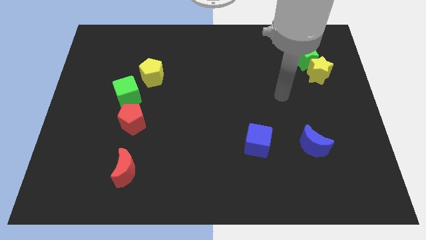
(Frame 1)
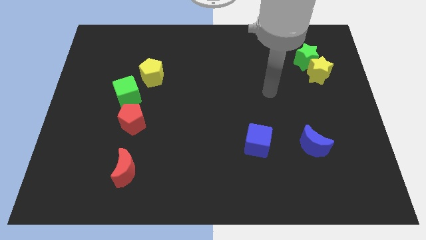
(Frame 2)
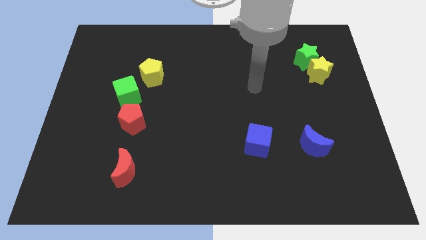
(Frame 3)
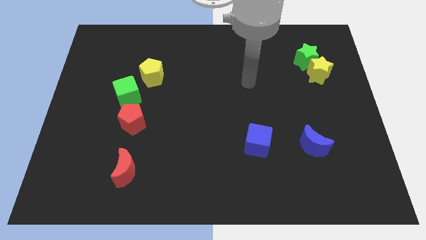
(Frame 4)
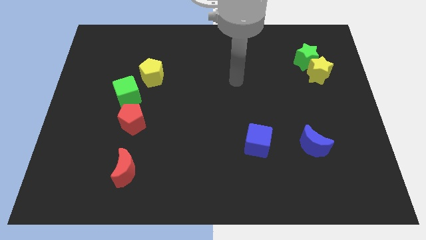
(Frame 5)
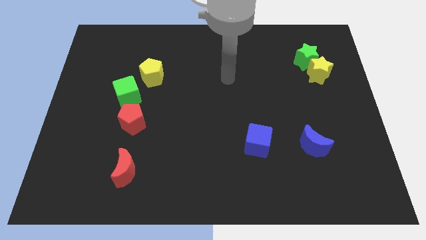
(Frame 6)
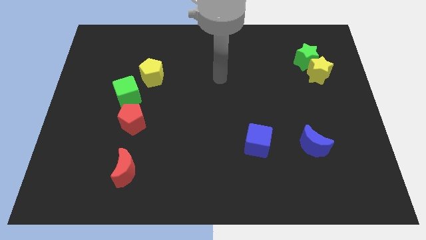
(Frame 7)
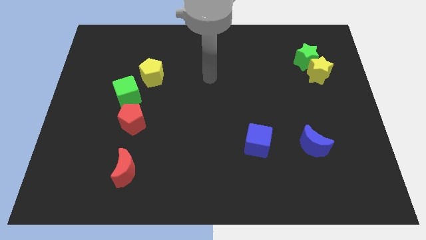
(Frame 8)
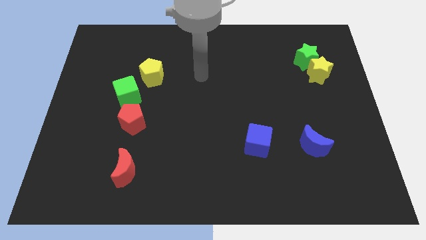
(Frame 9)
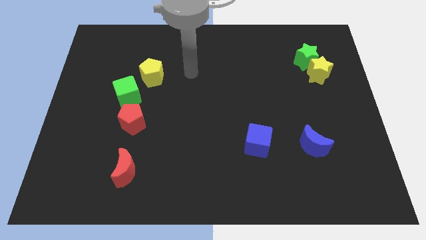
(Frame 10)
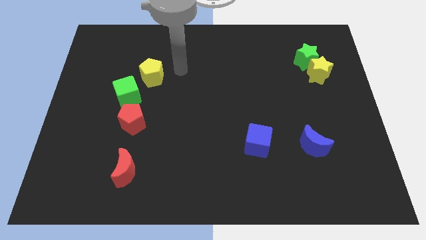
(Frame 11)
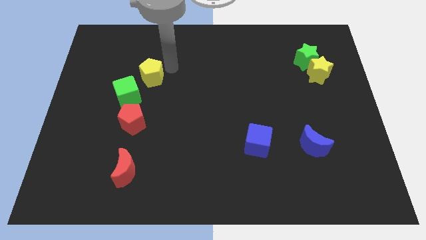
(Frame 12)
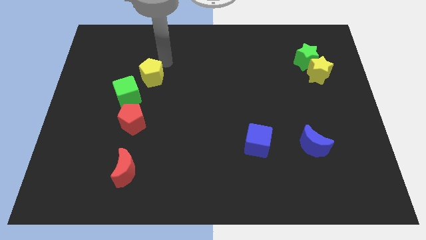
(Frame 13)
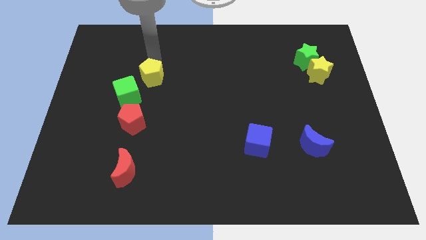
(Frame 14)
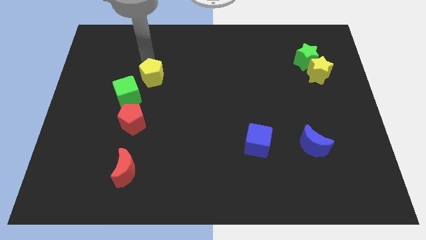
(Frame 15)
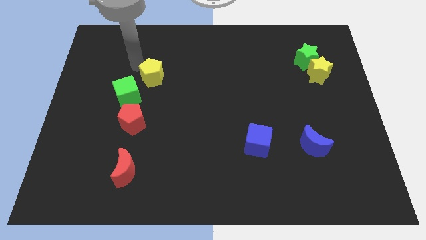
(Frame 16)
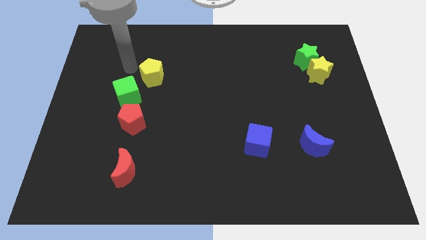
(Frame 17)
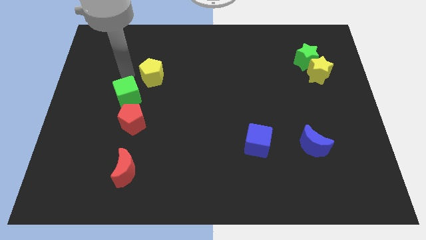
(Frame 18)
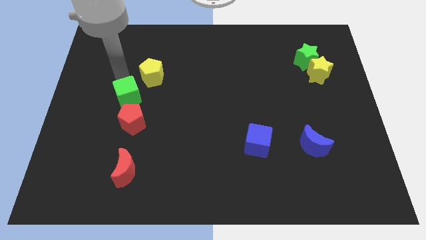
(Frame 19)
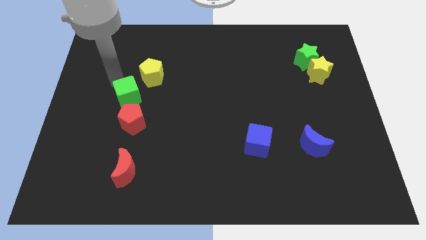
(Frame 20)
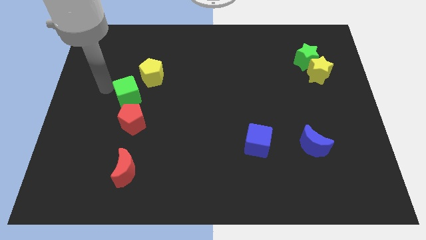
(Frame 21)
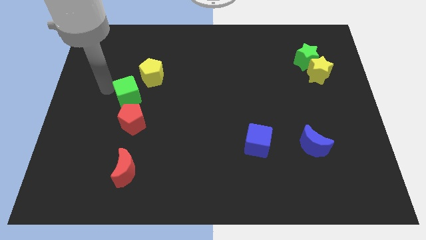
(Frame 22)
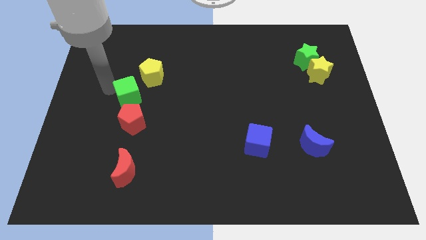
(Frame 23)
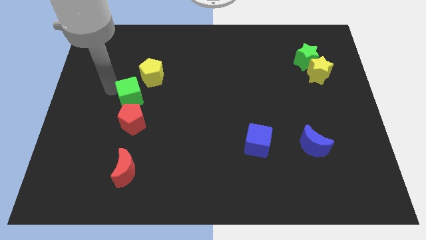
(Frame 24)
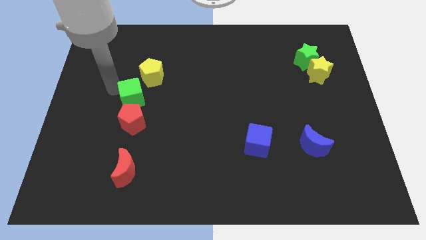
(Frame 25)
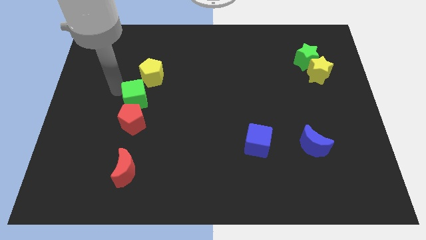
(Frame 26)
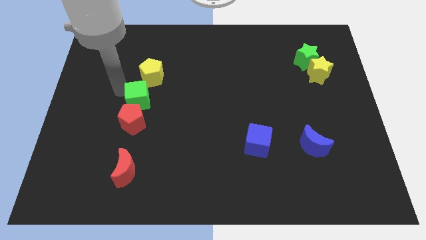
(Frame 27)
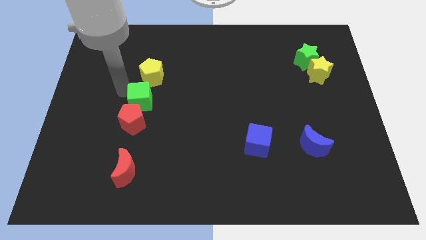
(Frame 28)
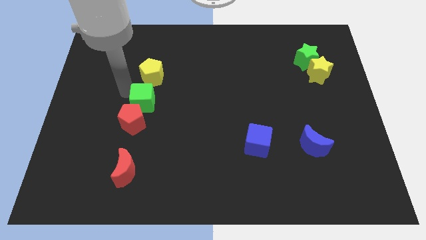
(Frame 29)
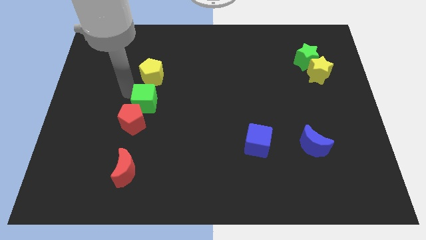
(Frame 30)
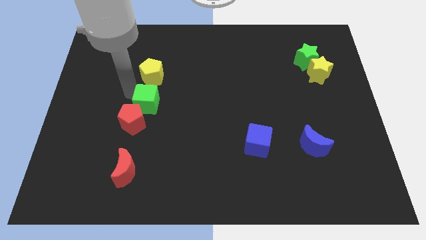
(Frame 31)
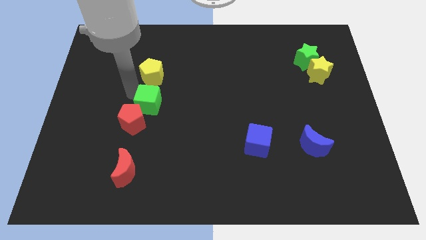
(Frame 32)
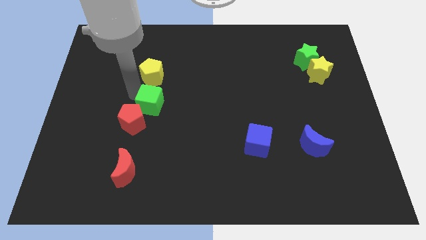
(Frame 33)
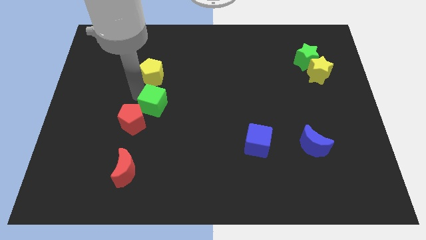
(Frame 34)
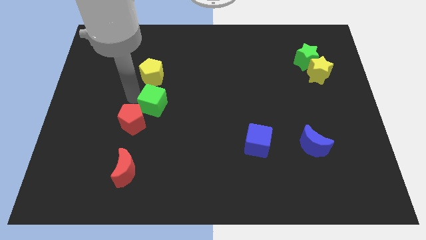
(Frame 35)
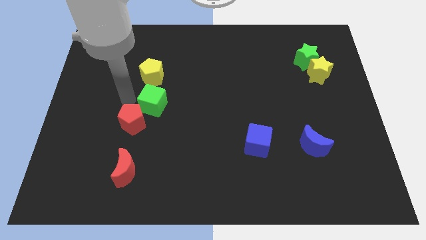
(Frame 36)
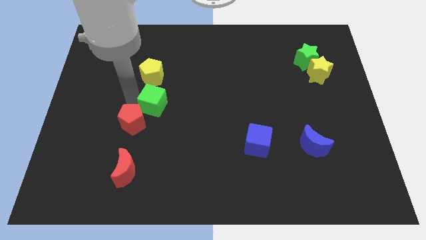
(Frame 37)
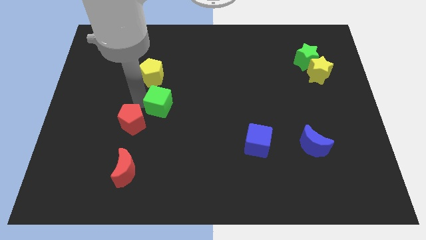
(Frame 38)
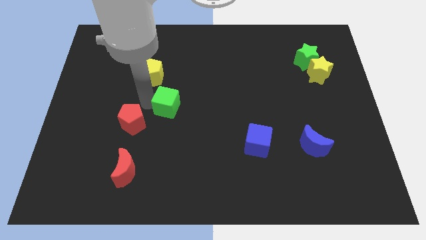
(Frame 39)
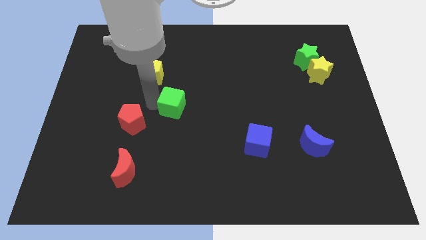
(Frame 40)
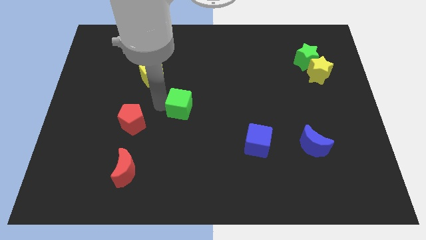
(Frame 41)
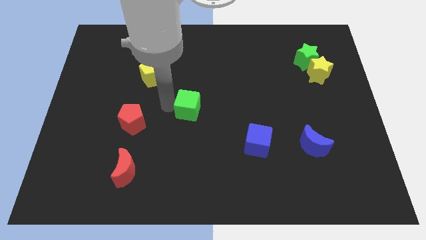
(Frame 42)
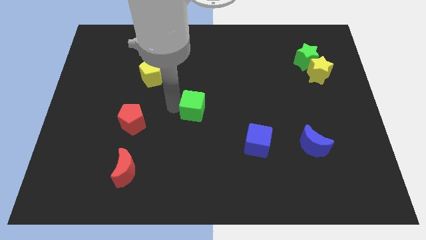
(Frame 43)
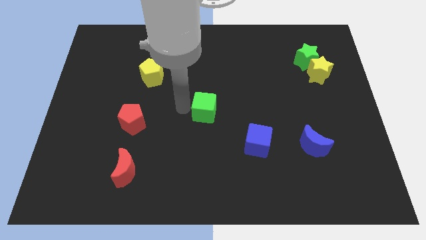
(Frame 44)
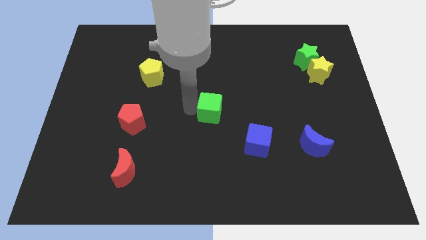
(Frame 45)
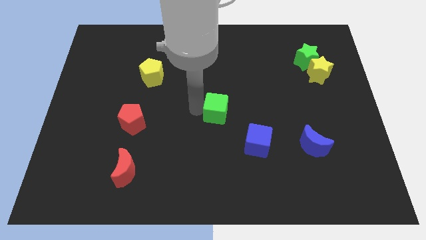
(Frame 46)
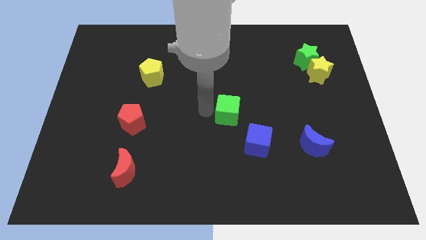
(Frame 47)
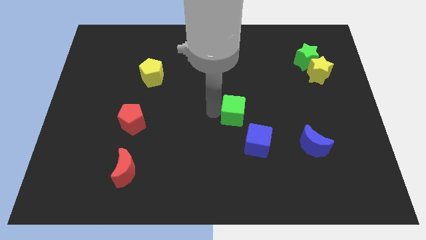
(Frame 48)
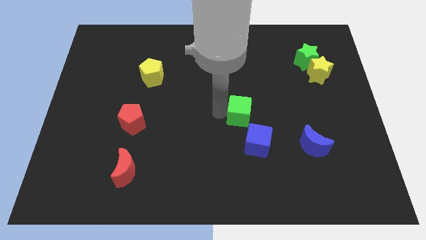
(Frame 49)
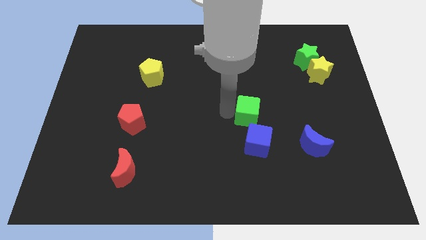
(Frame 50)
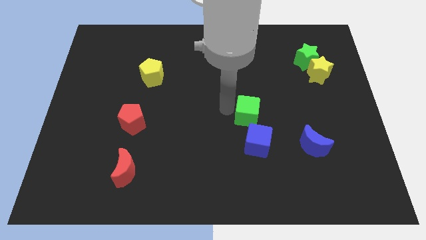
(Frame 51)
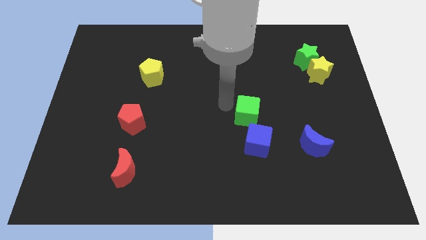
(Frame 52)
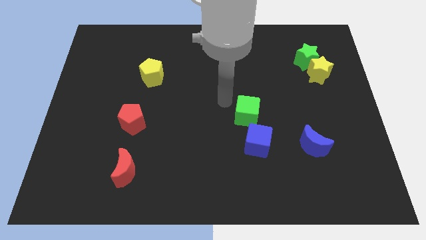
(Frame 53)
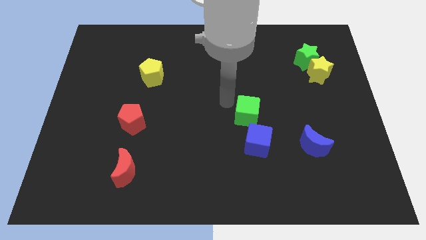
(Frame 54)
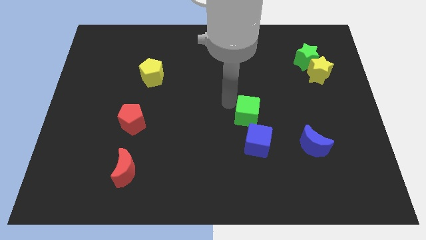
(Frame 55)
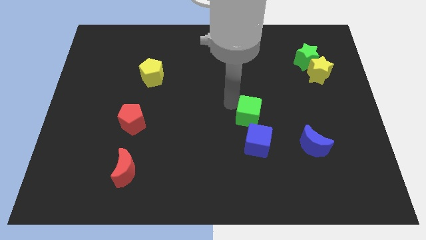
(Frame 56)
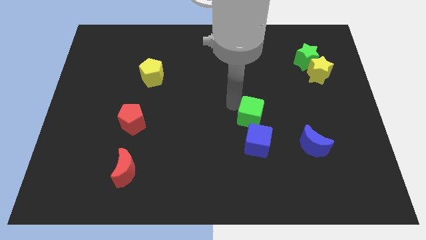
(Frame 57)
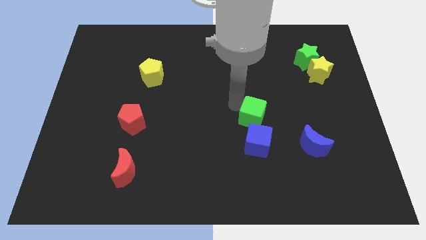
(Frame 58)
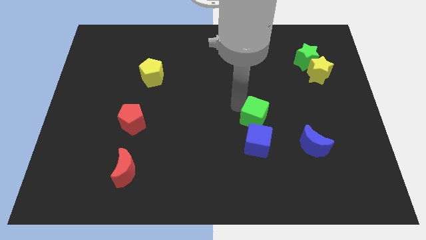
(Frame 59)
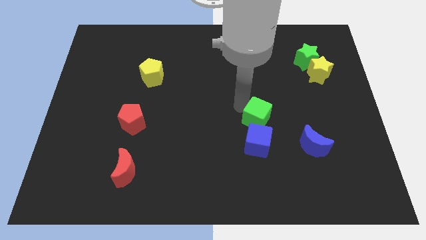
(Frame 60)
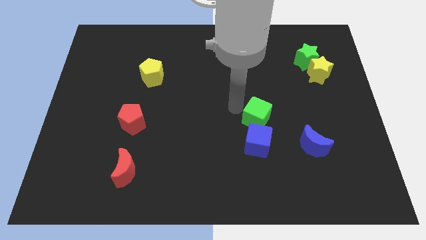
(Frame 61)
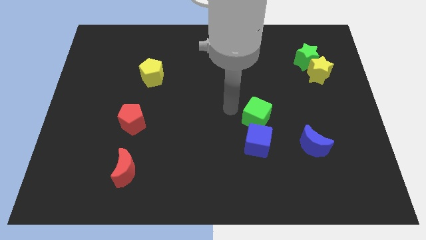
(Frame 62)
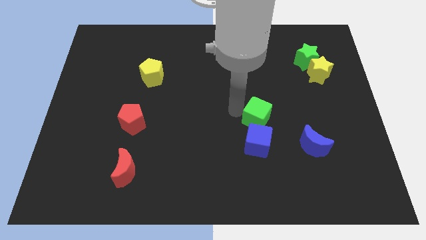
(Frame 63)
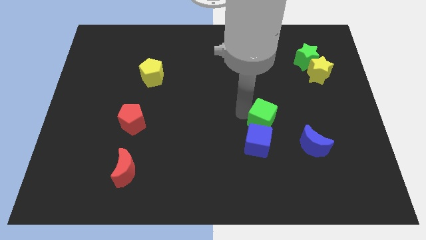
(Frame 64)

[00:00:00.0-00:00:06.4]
move the green cube to the top left side of the blue moon
